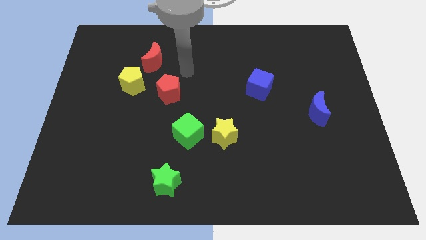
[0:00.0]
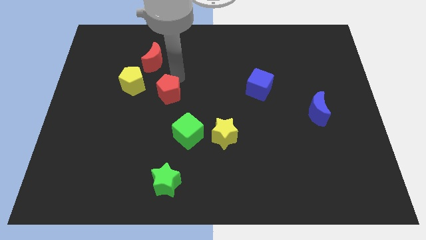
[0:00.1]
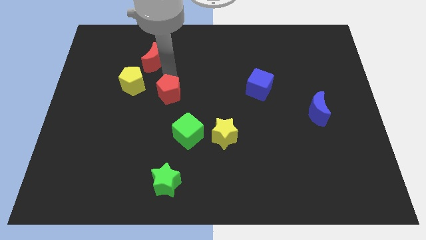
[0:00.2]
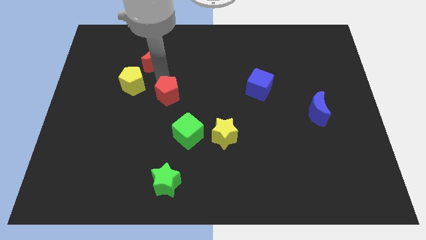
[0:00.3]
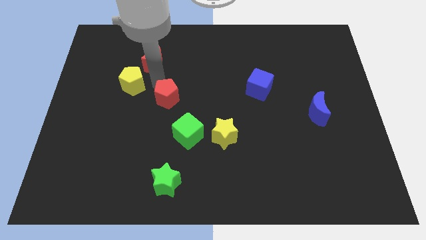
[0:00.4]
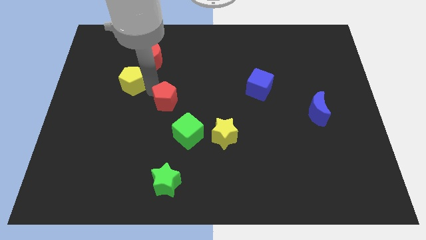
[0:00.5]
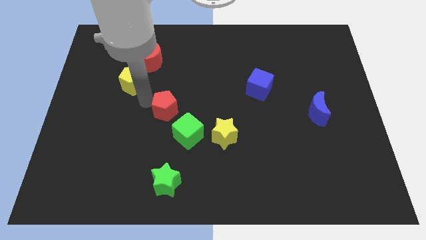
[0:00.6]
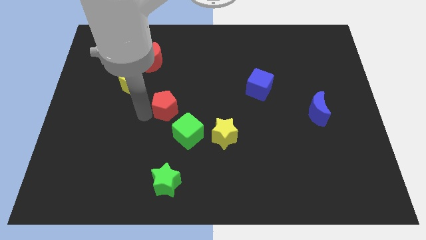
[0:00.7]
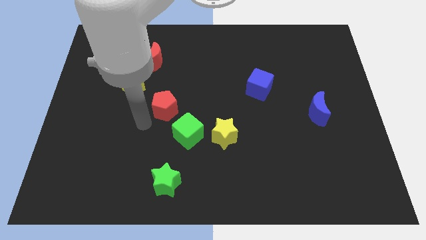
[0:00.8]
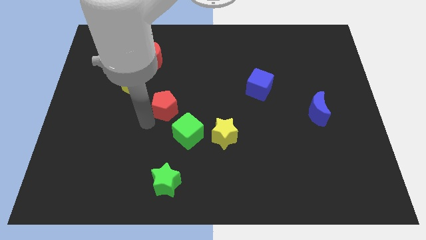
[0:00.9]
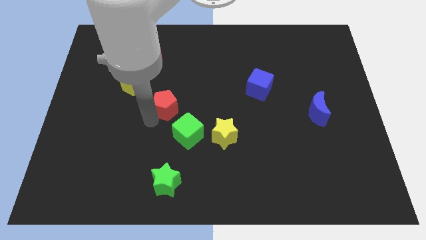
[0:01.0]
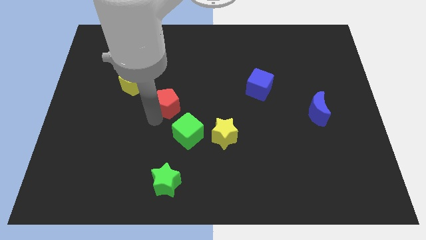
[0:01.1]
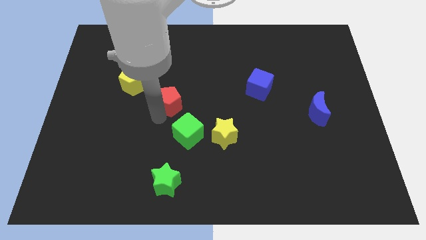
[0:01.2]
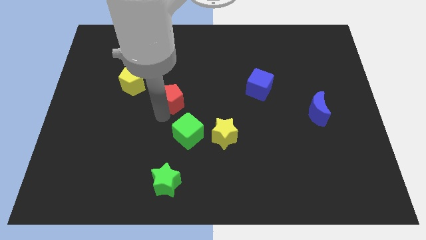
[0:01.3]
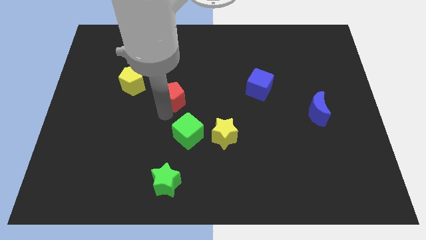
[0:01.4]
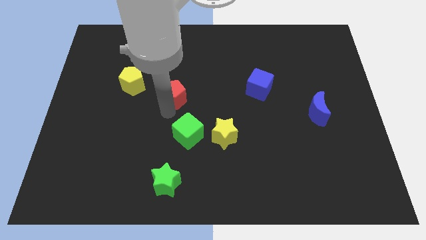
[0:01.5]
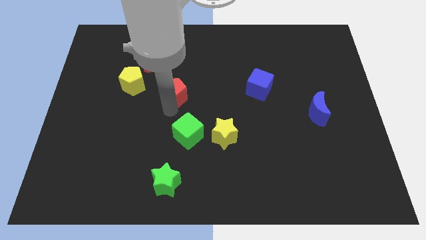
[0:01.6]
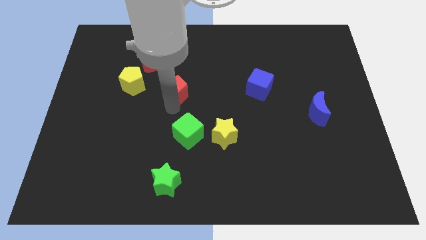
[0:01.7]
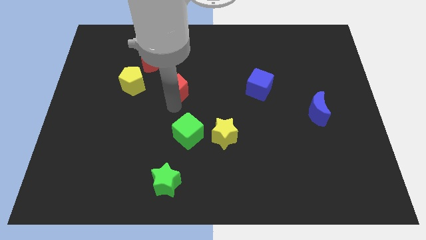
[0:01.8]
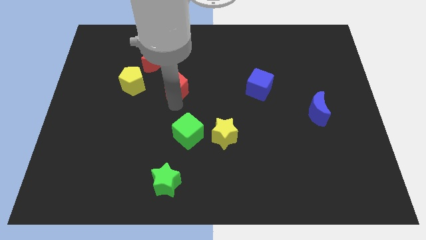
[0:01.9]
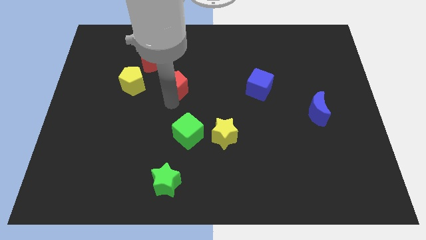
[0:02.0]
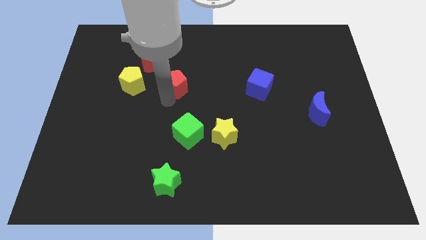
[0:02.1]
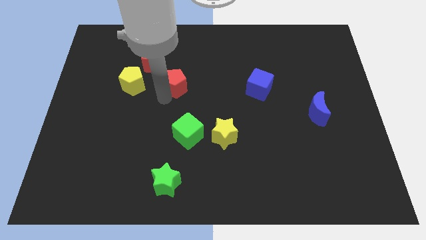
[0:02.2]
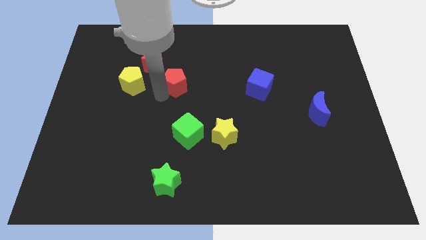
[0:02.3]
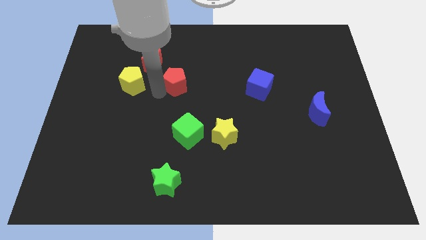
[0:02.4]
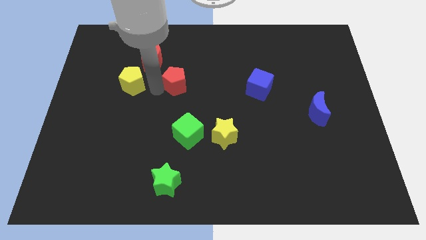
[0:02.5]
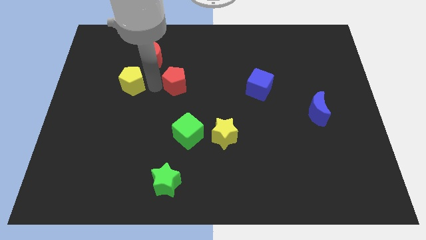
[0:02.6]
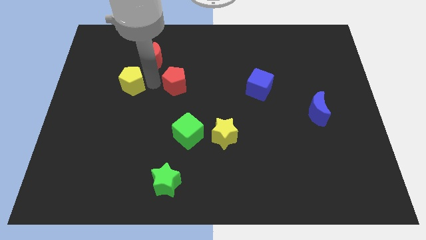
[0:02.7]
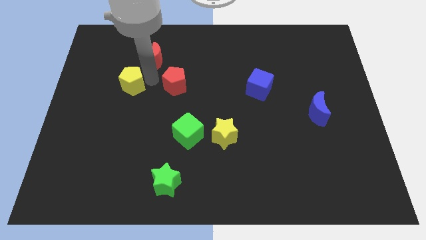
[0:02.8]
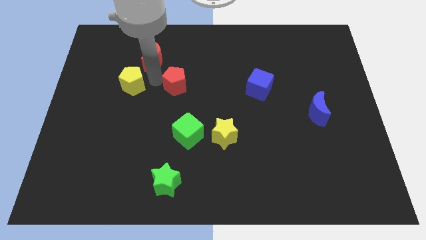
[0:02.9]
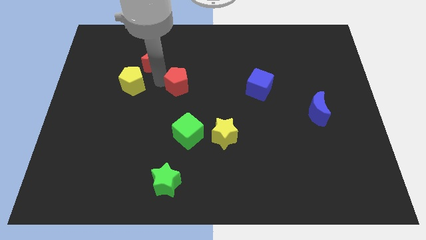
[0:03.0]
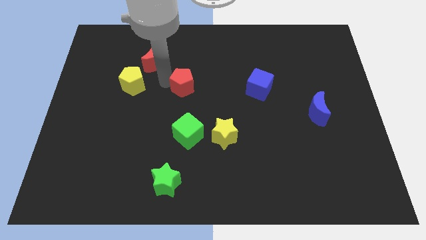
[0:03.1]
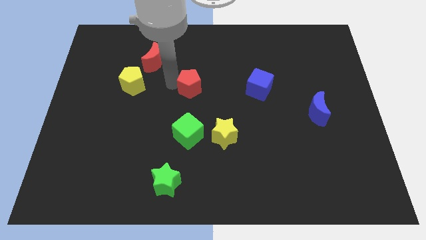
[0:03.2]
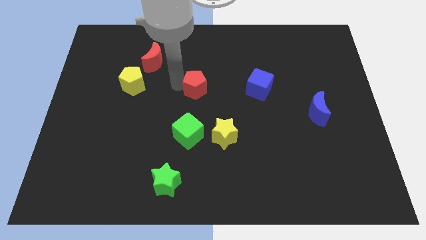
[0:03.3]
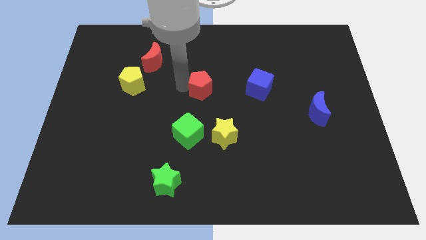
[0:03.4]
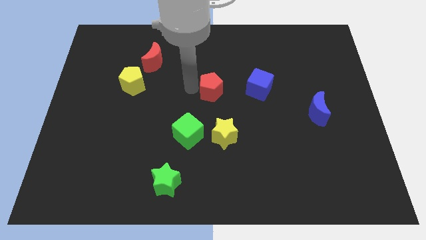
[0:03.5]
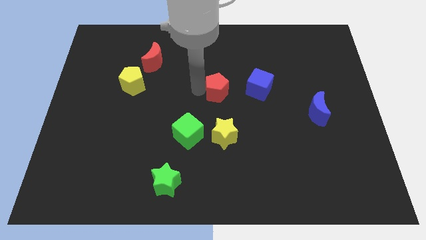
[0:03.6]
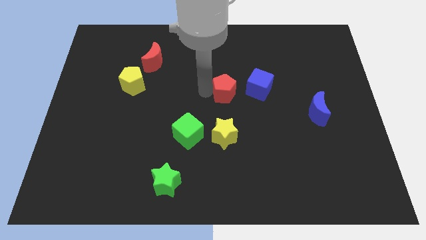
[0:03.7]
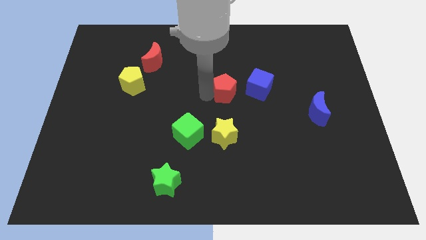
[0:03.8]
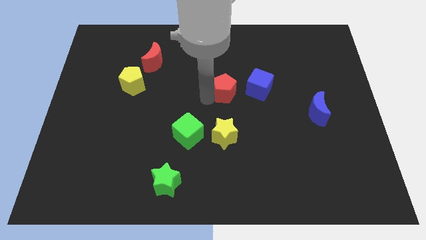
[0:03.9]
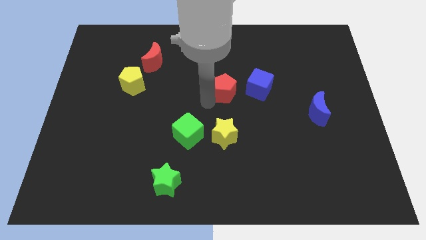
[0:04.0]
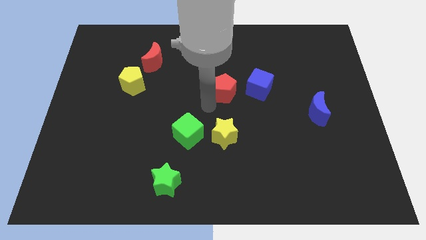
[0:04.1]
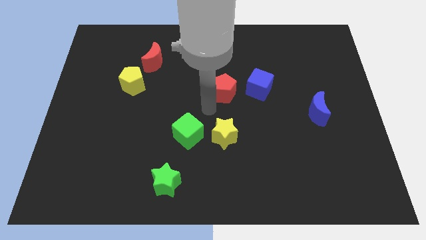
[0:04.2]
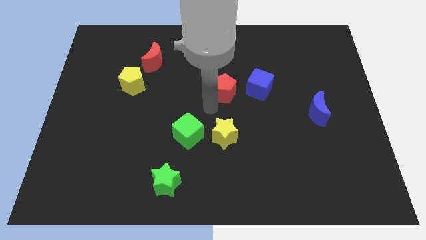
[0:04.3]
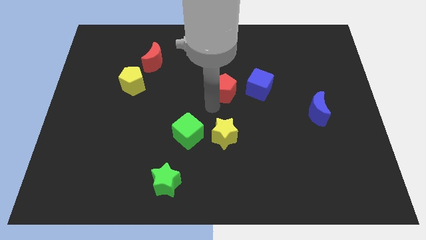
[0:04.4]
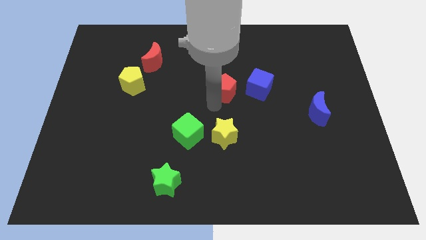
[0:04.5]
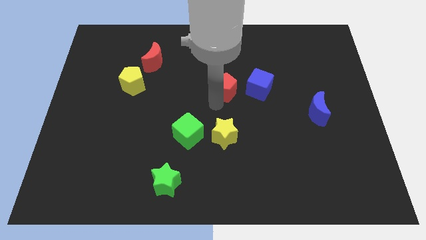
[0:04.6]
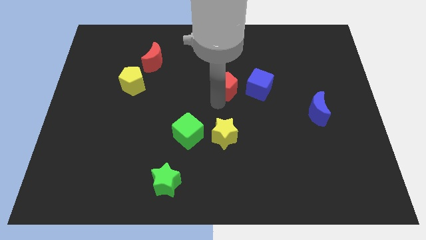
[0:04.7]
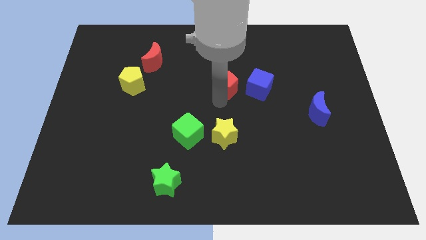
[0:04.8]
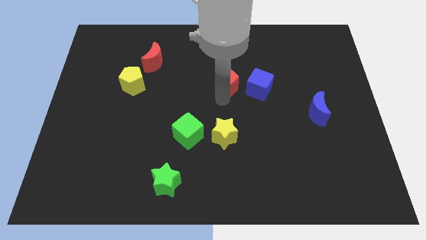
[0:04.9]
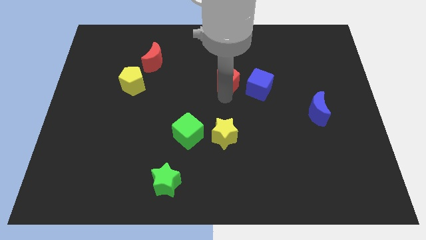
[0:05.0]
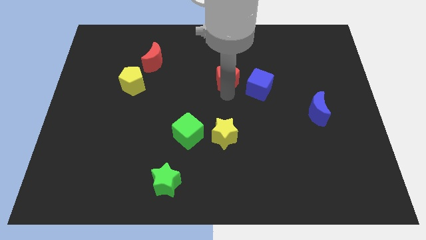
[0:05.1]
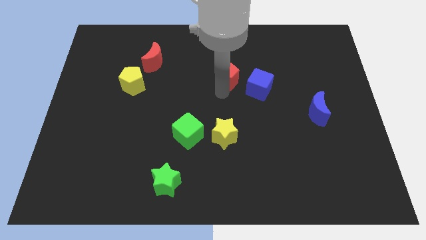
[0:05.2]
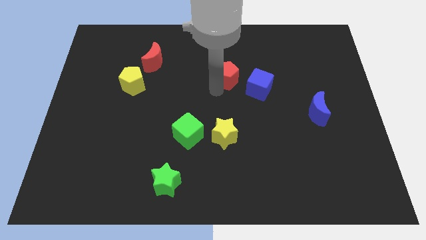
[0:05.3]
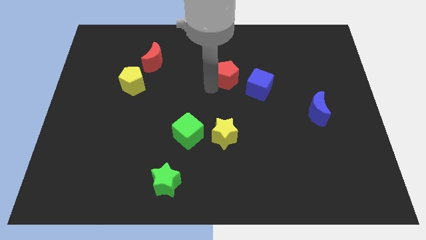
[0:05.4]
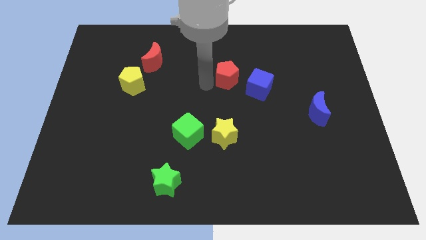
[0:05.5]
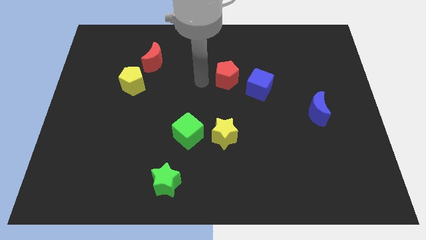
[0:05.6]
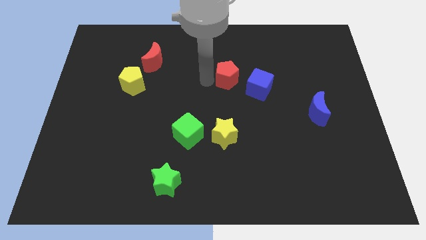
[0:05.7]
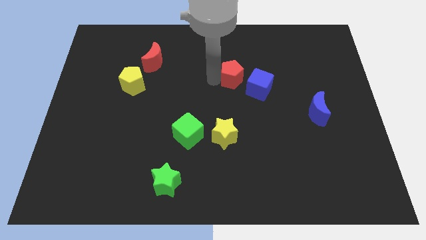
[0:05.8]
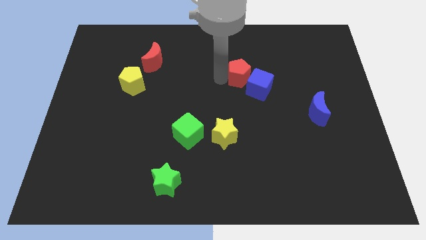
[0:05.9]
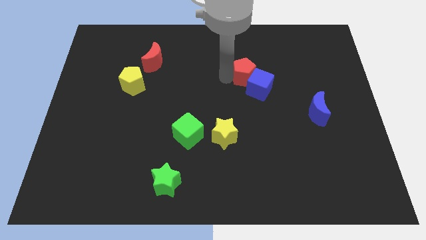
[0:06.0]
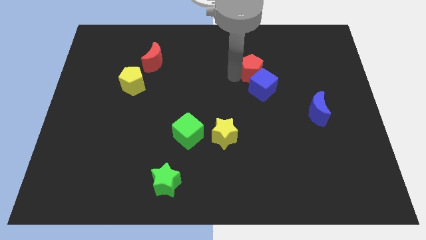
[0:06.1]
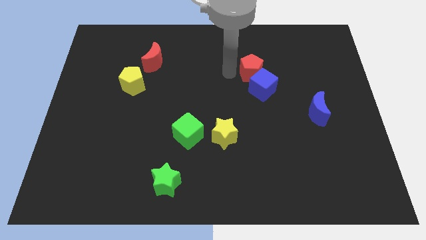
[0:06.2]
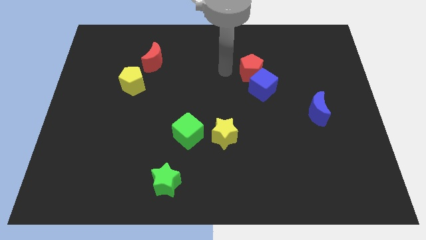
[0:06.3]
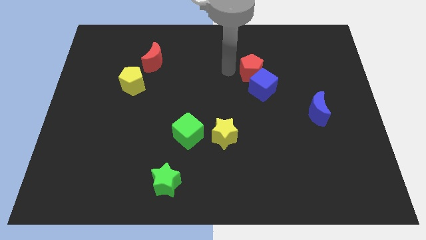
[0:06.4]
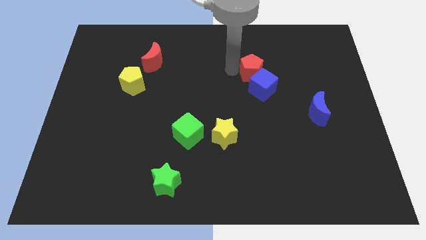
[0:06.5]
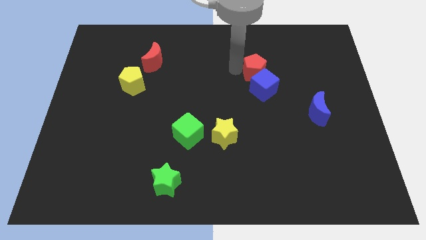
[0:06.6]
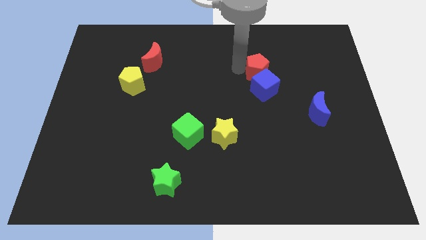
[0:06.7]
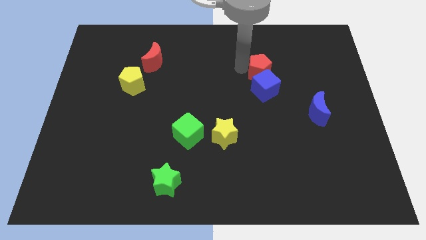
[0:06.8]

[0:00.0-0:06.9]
slide the red pentagon to the top right side of the blue cube

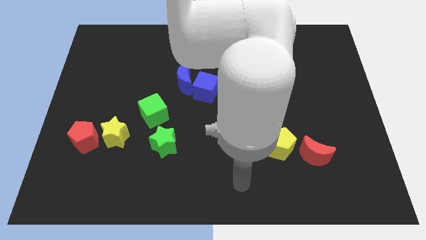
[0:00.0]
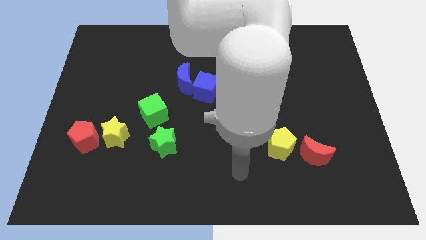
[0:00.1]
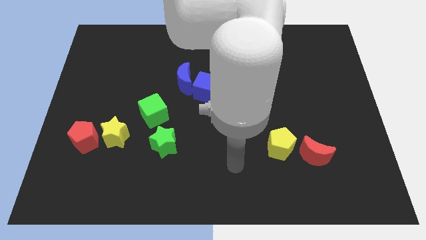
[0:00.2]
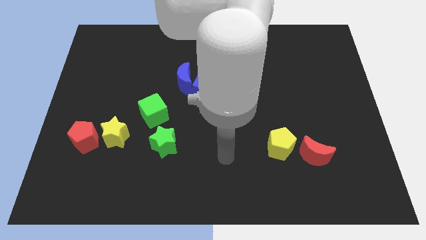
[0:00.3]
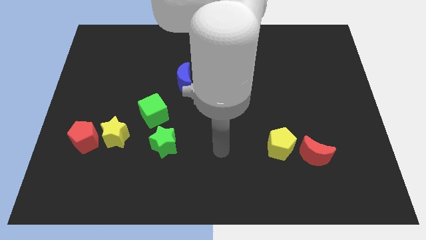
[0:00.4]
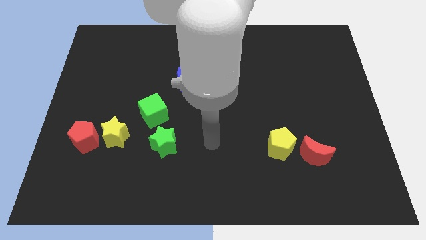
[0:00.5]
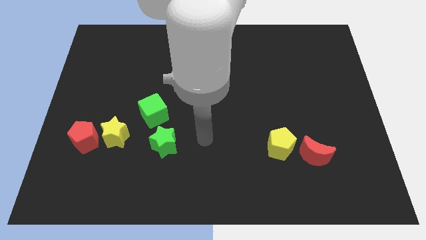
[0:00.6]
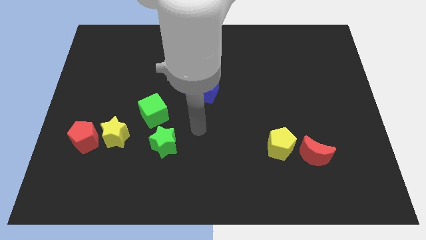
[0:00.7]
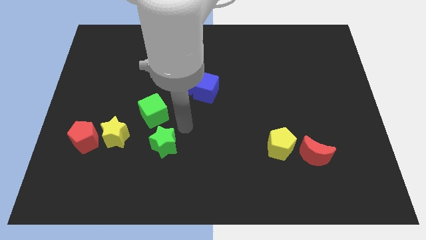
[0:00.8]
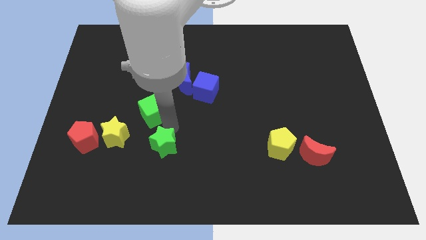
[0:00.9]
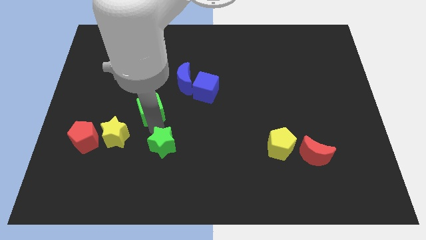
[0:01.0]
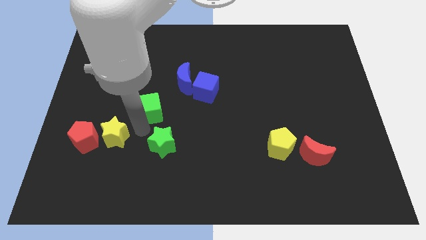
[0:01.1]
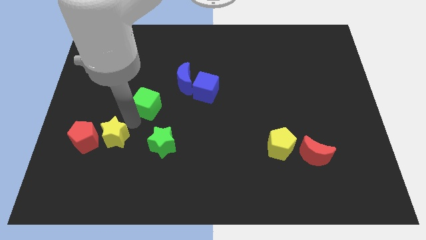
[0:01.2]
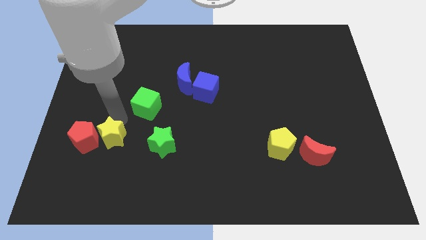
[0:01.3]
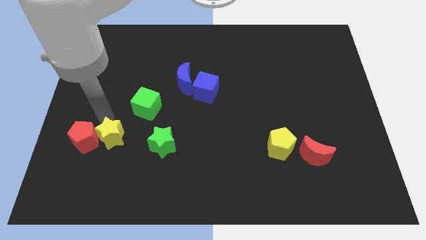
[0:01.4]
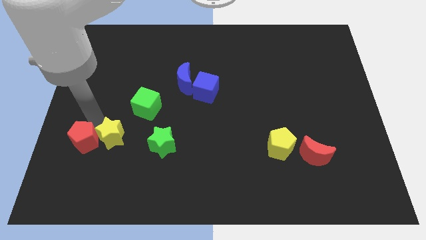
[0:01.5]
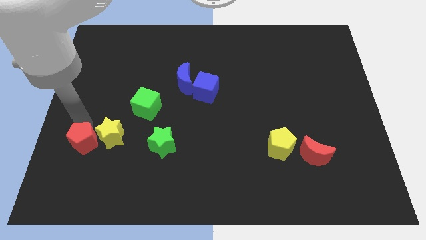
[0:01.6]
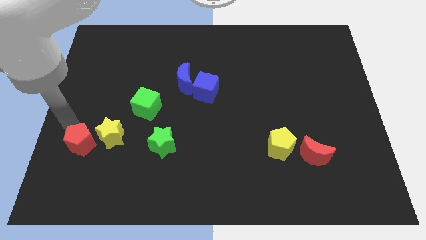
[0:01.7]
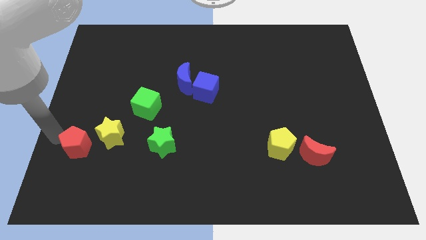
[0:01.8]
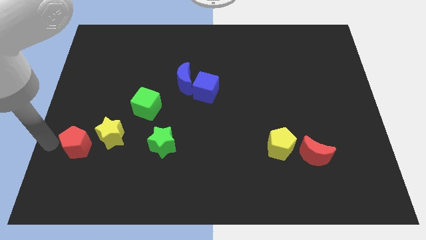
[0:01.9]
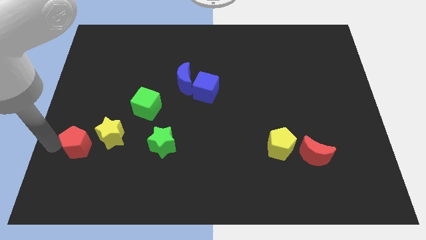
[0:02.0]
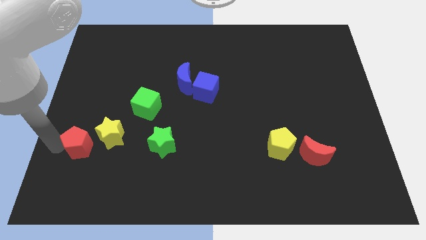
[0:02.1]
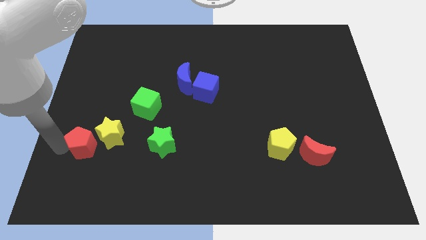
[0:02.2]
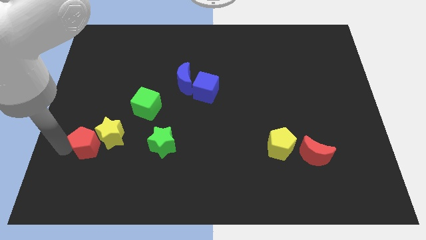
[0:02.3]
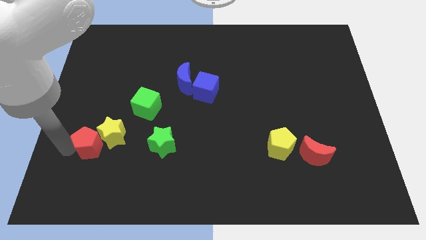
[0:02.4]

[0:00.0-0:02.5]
push the red pentagon to the left side of the green star
